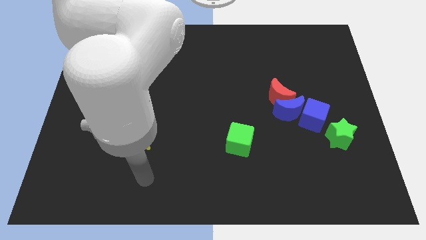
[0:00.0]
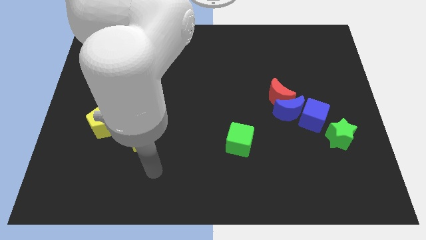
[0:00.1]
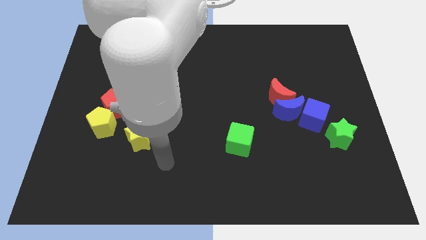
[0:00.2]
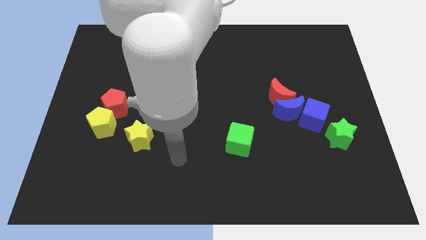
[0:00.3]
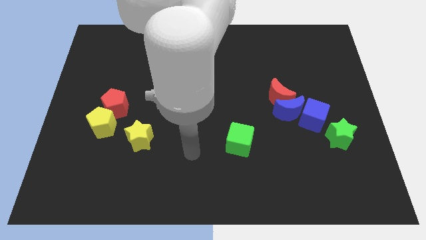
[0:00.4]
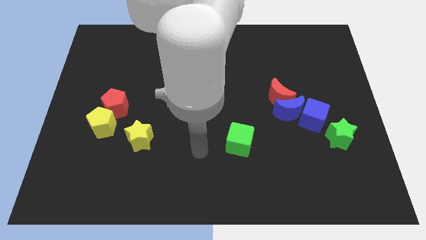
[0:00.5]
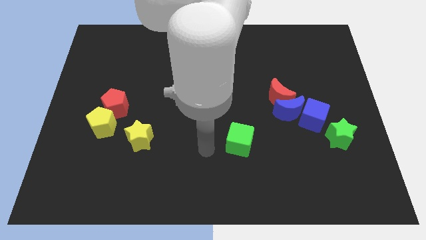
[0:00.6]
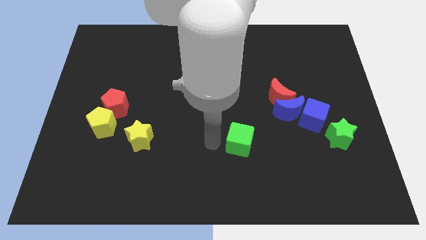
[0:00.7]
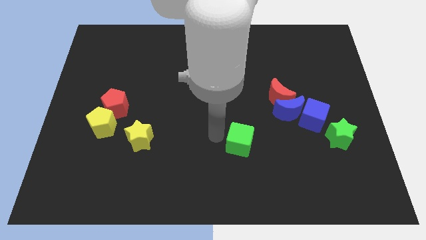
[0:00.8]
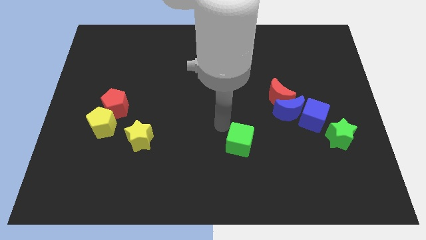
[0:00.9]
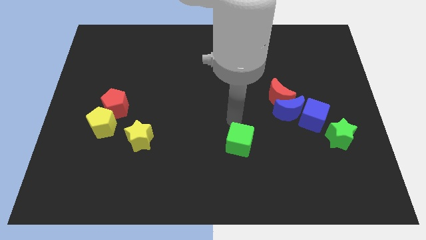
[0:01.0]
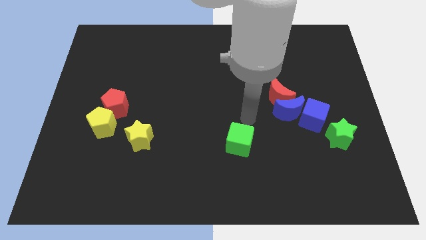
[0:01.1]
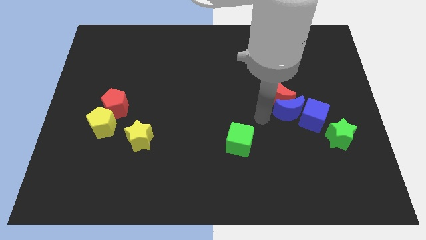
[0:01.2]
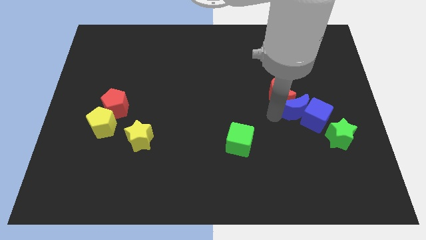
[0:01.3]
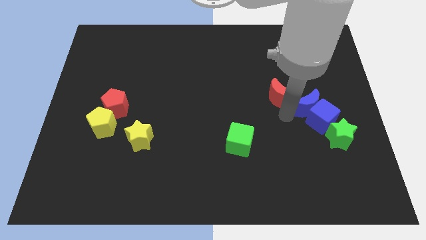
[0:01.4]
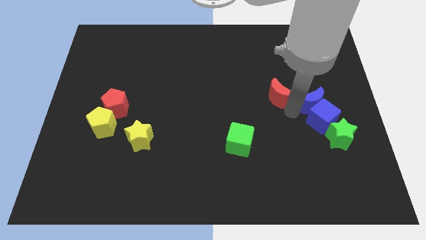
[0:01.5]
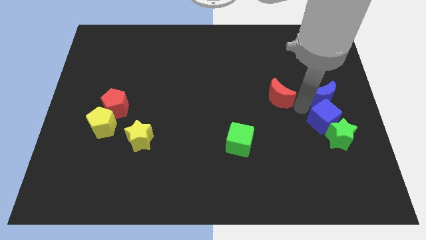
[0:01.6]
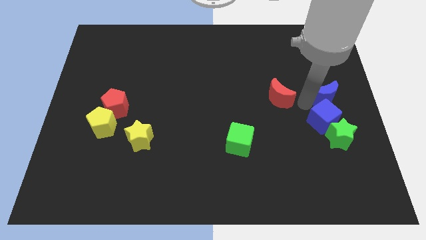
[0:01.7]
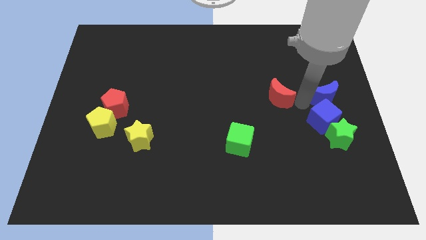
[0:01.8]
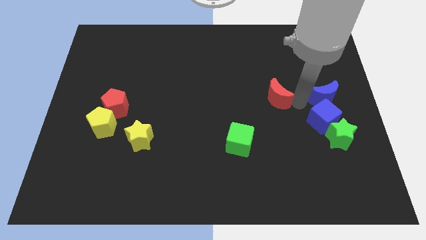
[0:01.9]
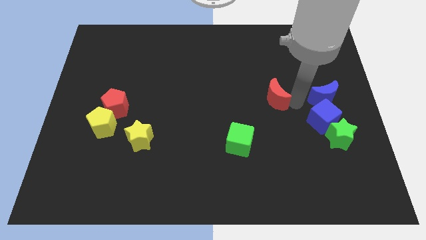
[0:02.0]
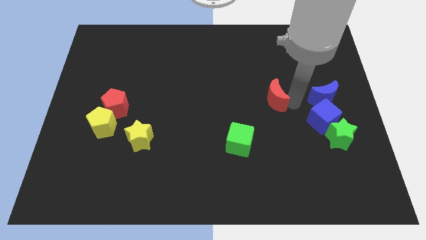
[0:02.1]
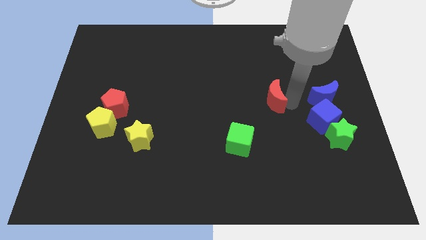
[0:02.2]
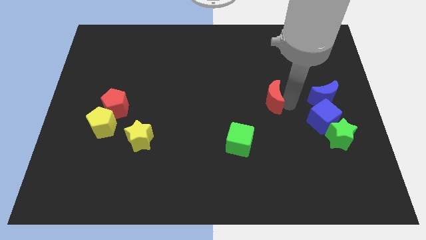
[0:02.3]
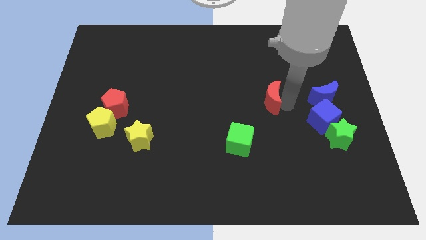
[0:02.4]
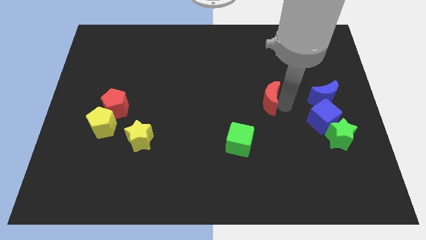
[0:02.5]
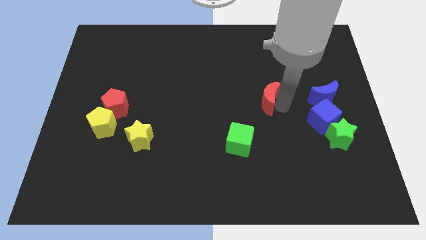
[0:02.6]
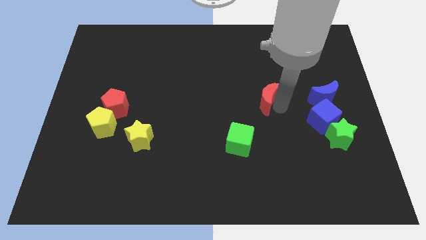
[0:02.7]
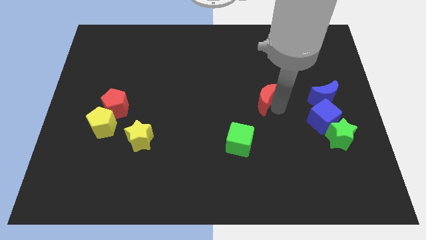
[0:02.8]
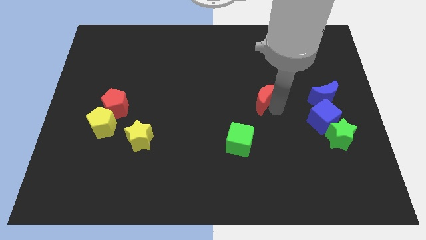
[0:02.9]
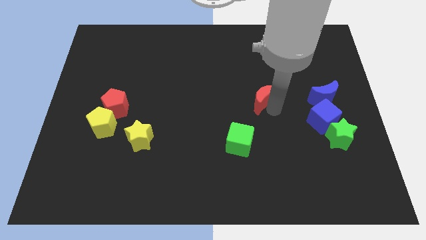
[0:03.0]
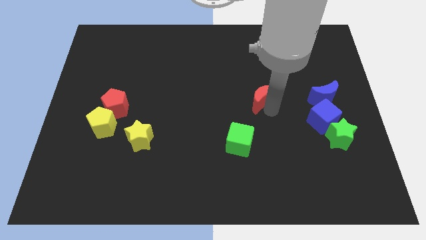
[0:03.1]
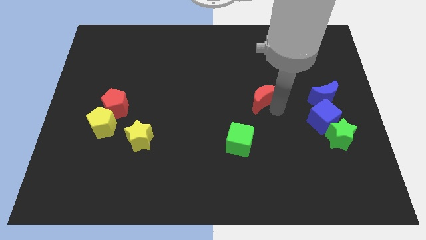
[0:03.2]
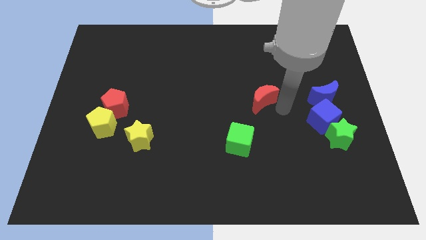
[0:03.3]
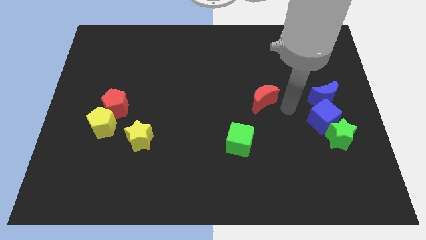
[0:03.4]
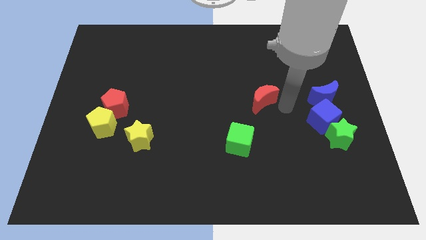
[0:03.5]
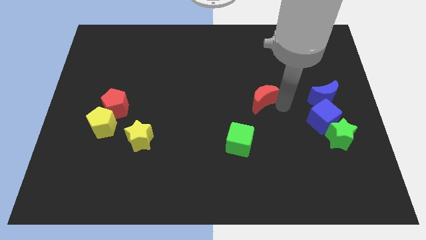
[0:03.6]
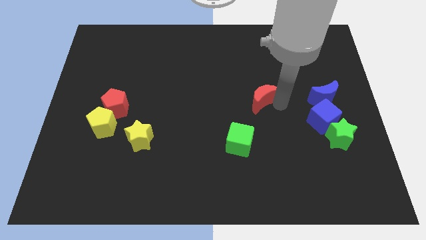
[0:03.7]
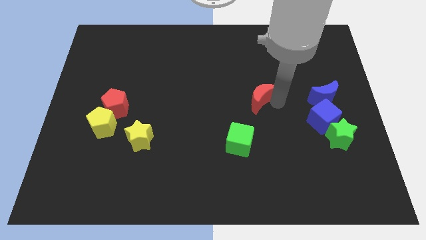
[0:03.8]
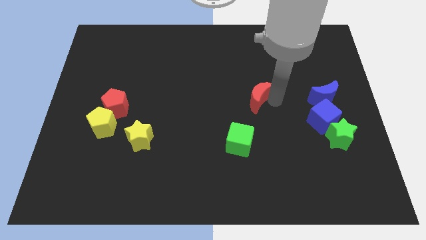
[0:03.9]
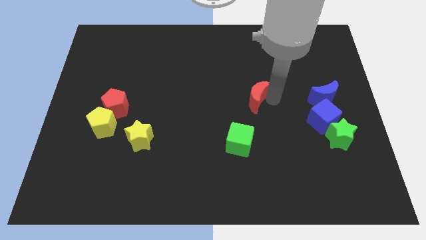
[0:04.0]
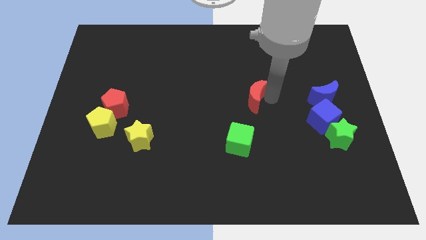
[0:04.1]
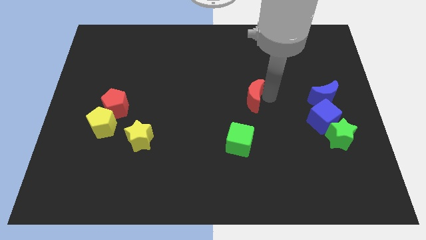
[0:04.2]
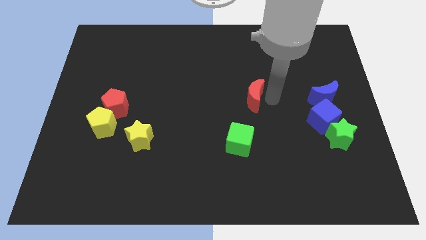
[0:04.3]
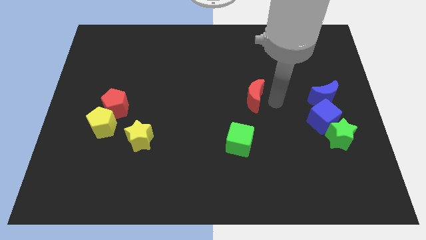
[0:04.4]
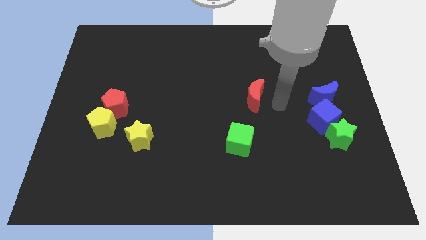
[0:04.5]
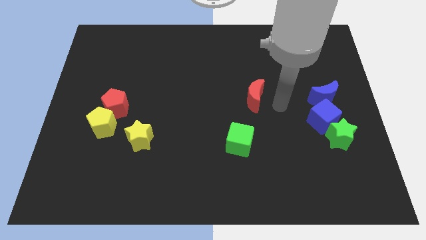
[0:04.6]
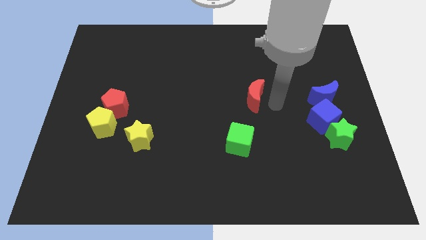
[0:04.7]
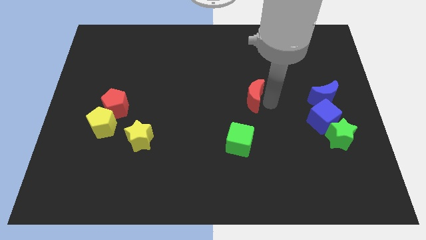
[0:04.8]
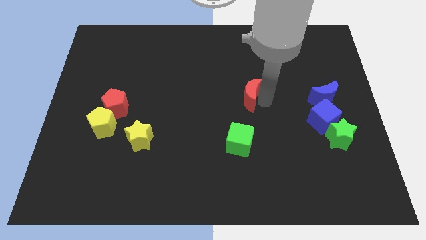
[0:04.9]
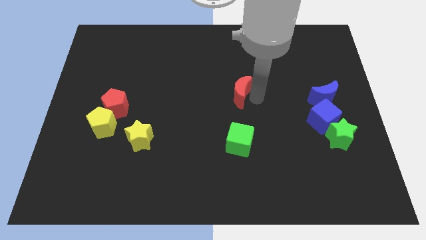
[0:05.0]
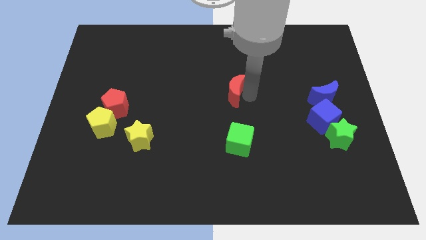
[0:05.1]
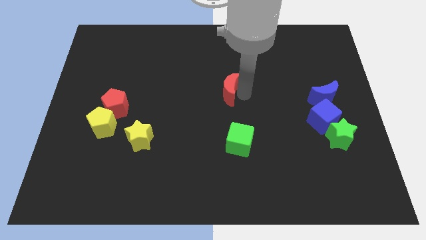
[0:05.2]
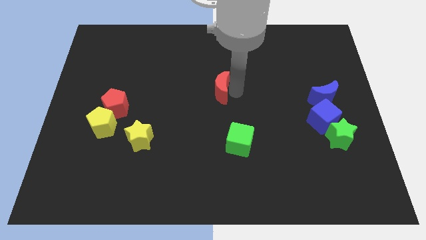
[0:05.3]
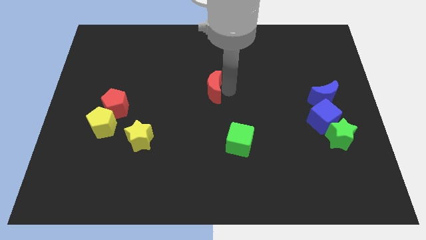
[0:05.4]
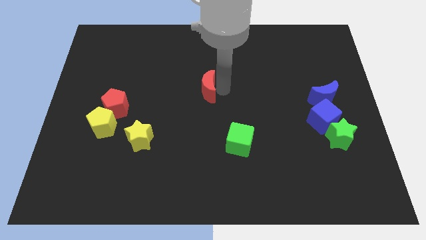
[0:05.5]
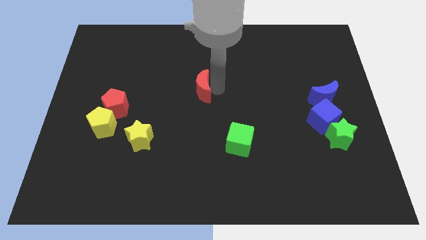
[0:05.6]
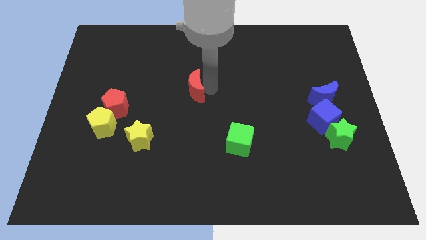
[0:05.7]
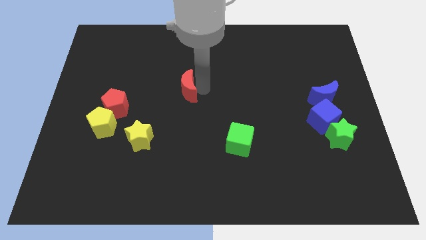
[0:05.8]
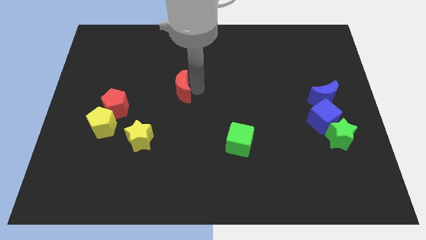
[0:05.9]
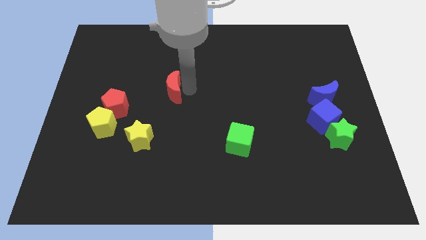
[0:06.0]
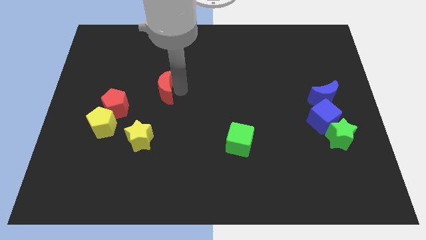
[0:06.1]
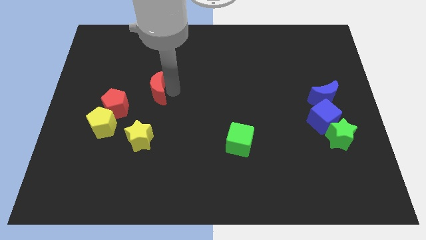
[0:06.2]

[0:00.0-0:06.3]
put the red moon diagonally up and to the right of the red pentagon

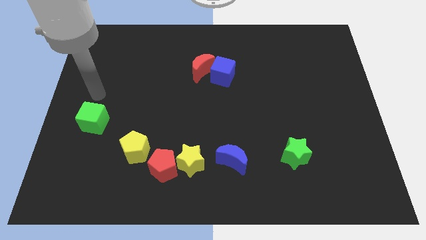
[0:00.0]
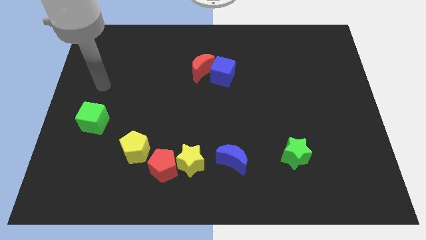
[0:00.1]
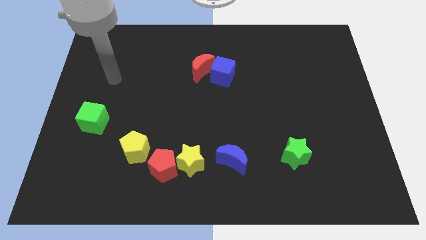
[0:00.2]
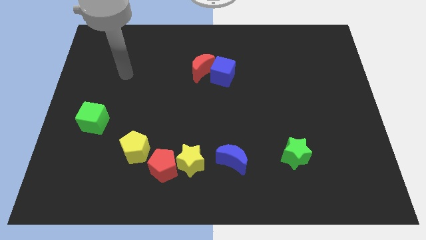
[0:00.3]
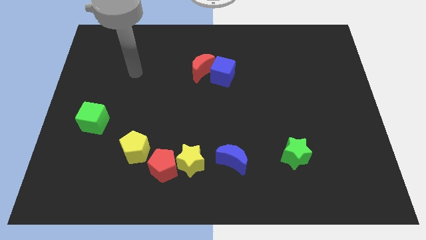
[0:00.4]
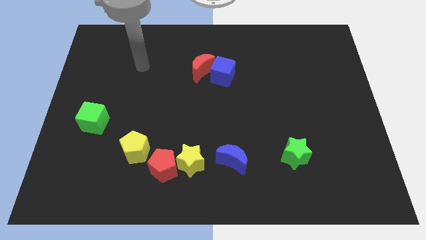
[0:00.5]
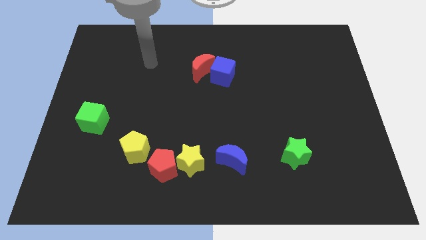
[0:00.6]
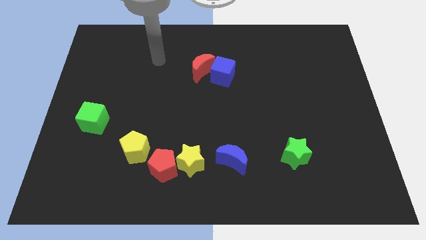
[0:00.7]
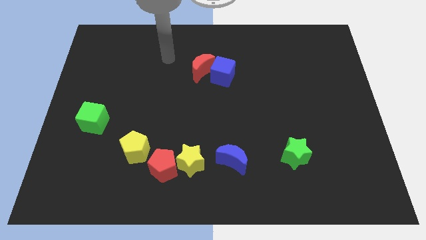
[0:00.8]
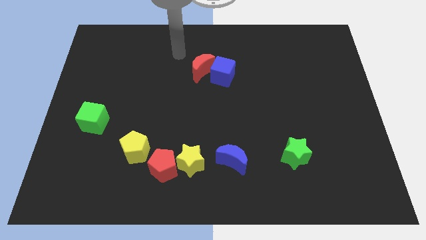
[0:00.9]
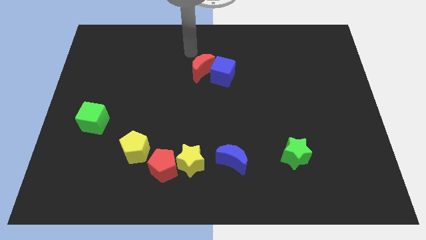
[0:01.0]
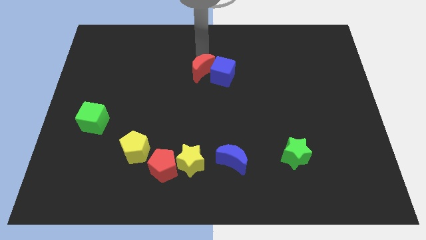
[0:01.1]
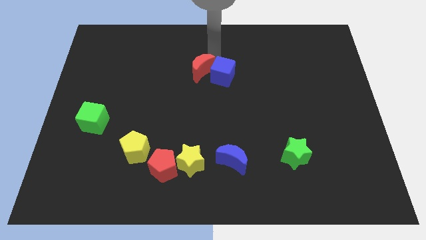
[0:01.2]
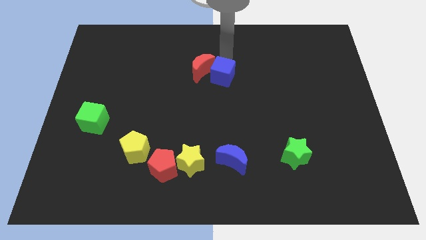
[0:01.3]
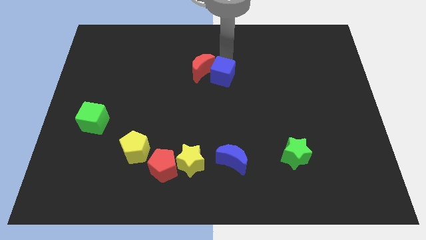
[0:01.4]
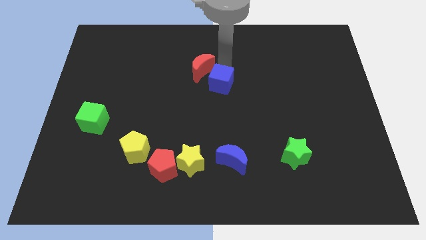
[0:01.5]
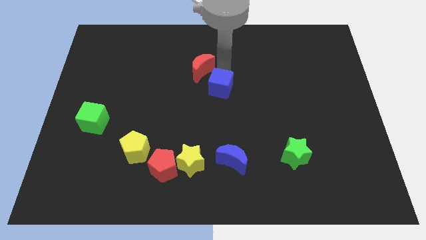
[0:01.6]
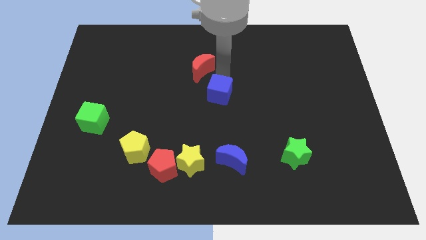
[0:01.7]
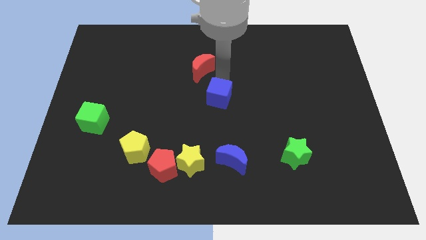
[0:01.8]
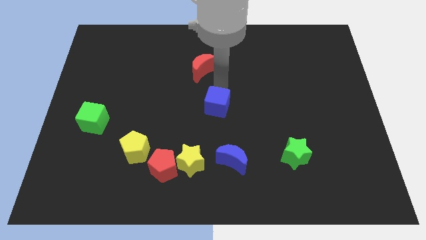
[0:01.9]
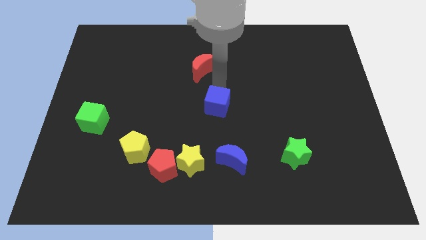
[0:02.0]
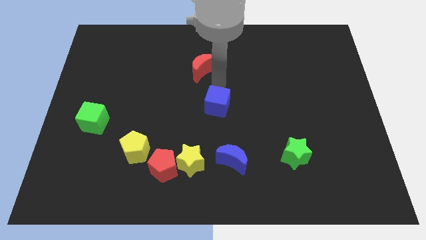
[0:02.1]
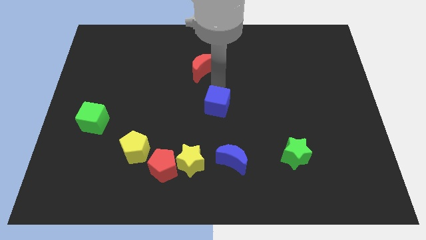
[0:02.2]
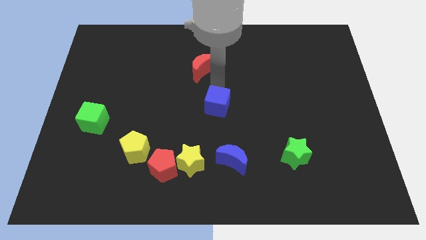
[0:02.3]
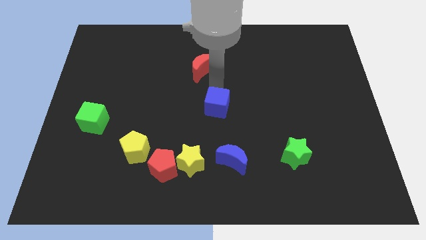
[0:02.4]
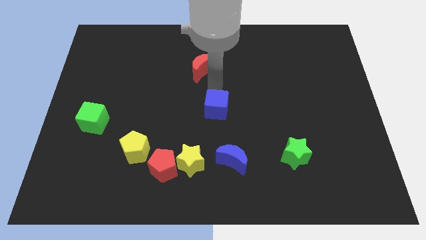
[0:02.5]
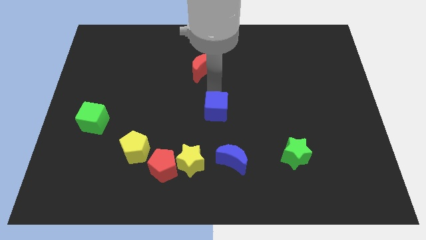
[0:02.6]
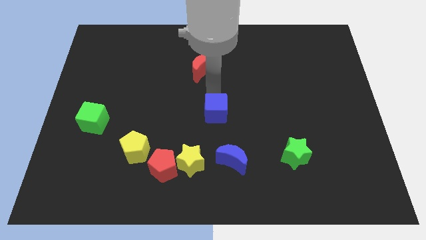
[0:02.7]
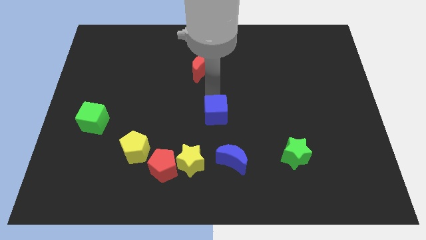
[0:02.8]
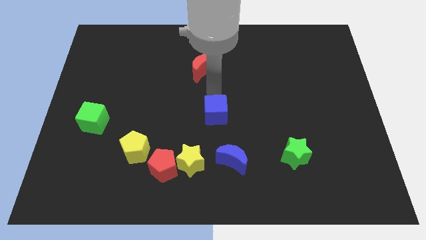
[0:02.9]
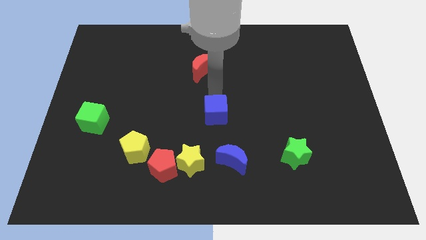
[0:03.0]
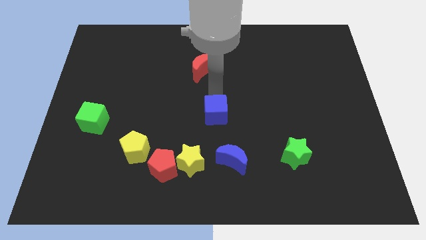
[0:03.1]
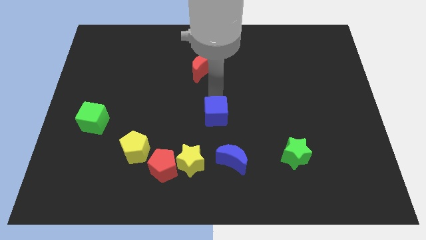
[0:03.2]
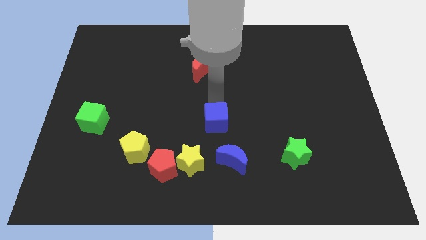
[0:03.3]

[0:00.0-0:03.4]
put the blue cube to the top right of the yellow star
